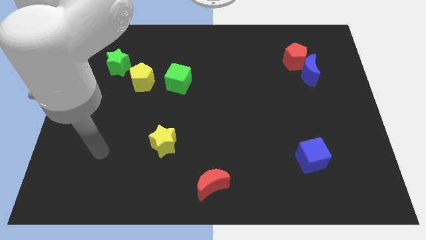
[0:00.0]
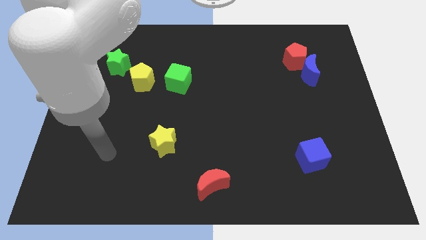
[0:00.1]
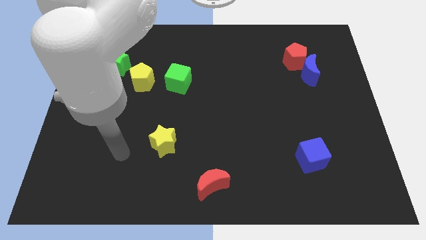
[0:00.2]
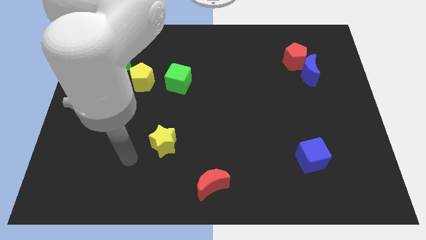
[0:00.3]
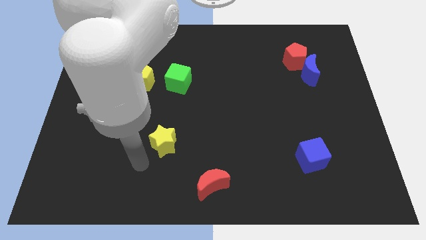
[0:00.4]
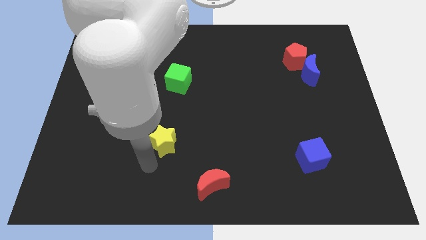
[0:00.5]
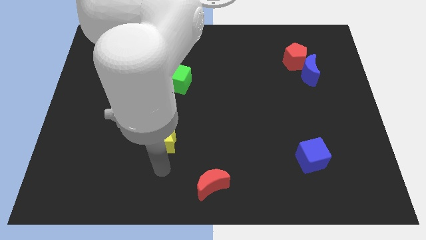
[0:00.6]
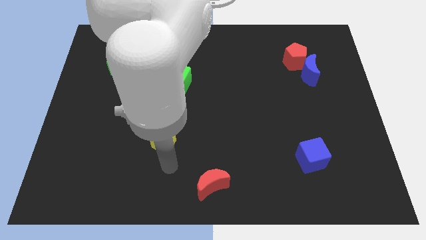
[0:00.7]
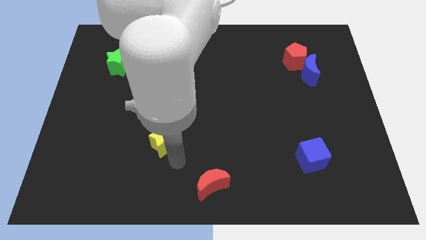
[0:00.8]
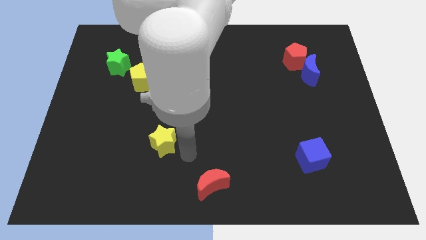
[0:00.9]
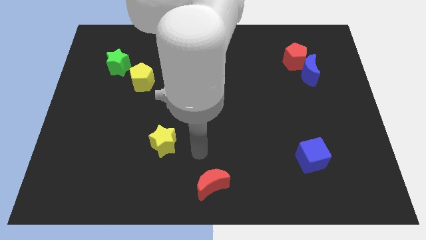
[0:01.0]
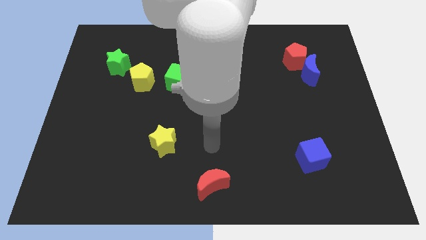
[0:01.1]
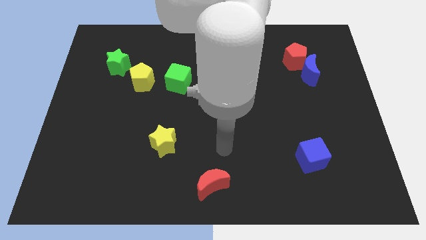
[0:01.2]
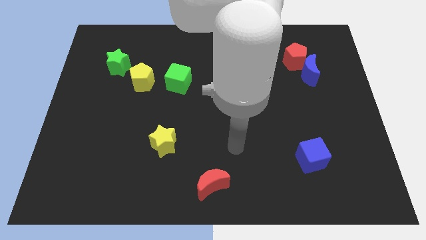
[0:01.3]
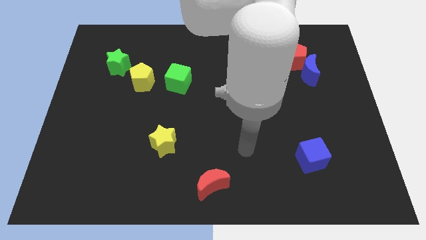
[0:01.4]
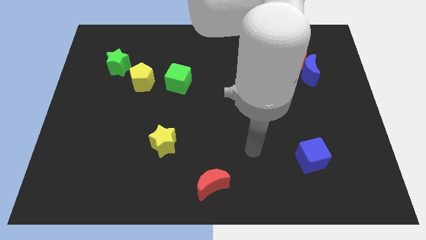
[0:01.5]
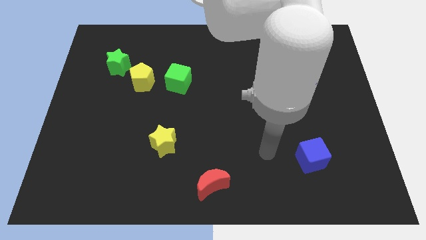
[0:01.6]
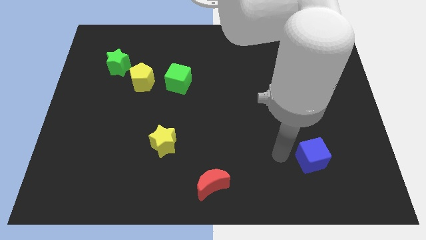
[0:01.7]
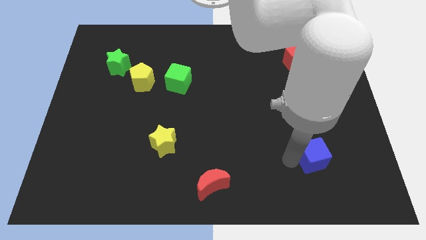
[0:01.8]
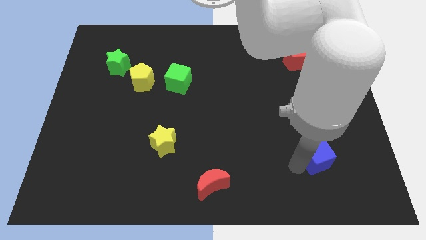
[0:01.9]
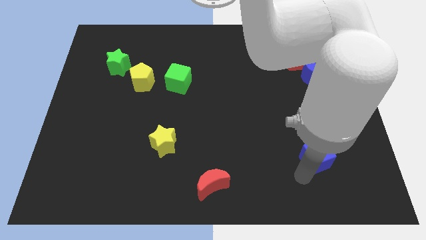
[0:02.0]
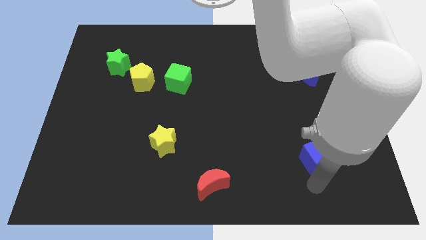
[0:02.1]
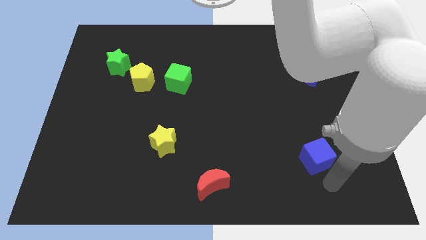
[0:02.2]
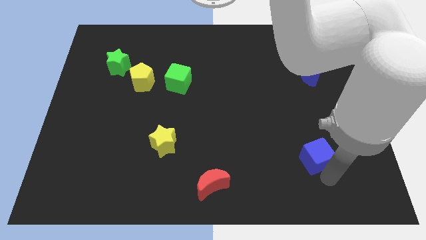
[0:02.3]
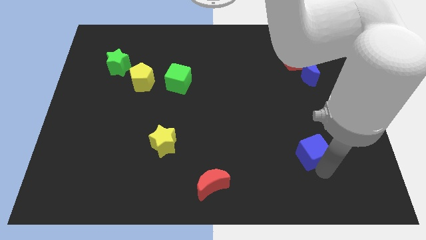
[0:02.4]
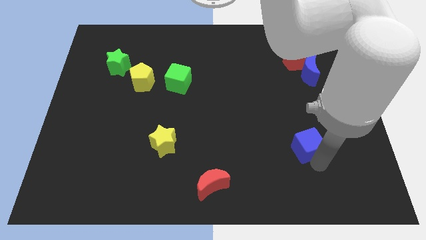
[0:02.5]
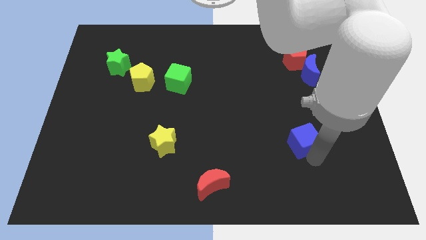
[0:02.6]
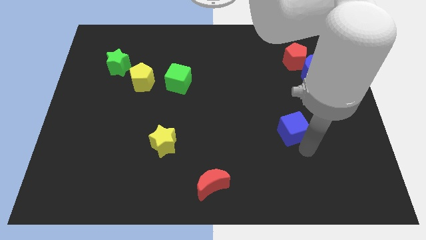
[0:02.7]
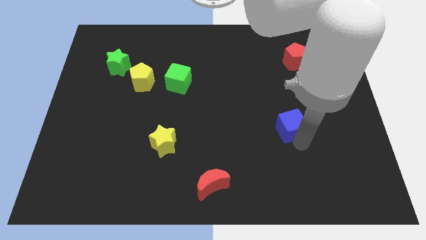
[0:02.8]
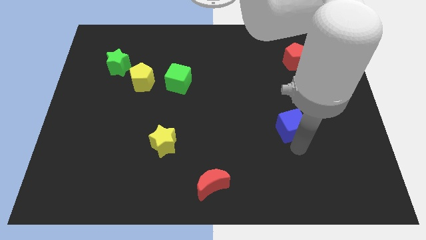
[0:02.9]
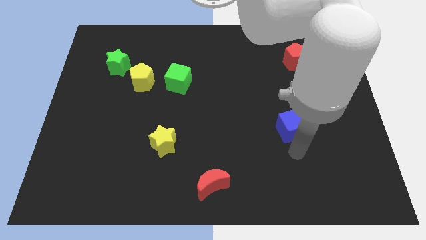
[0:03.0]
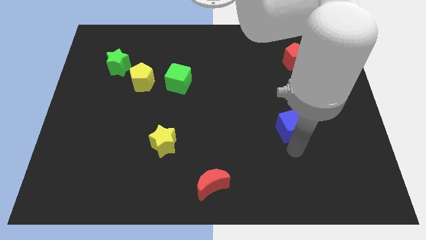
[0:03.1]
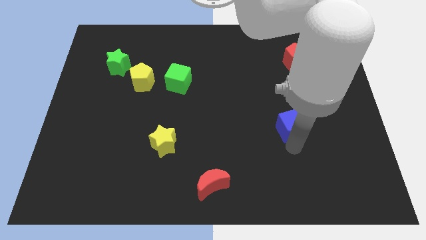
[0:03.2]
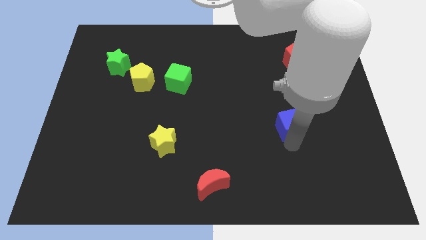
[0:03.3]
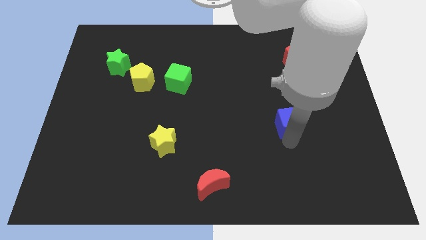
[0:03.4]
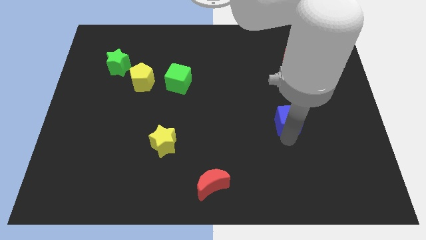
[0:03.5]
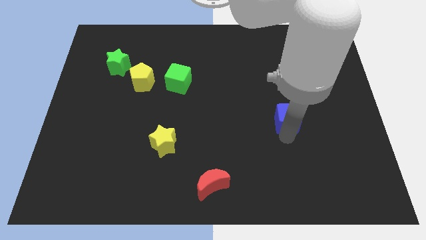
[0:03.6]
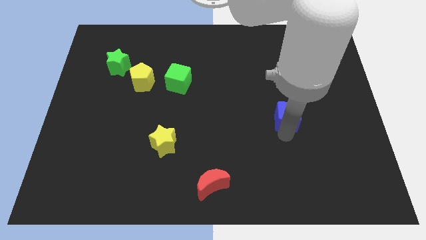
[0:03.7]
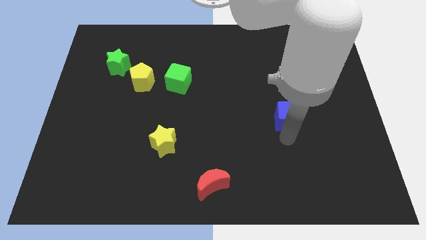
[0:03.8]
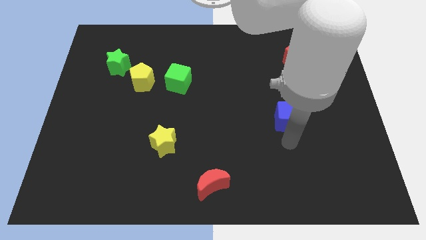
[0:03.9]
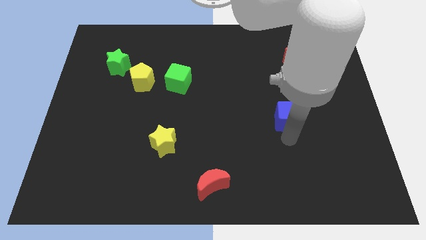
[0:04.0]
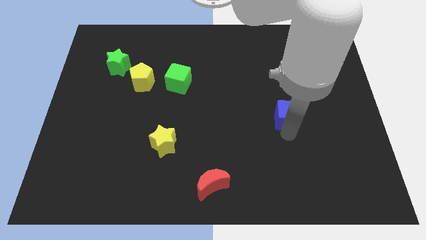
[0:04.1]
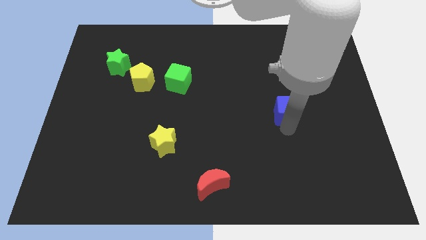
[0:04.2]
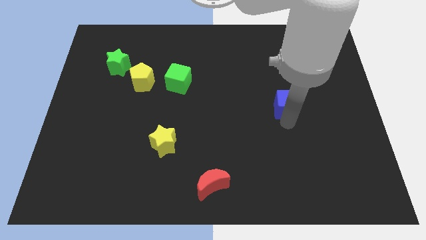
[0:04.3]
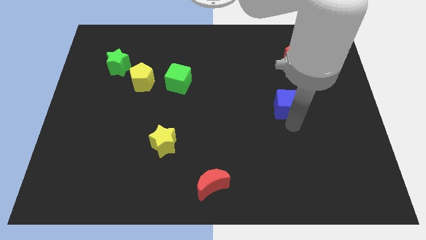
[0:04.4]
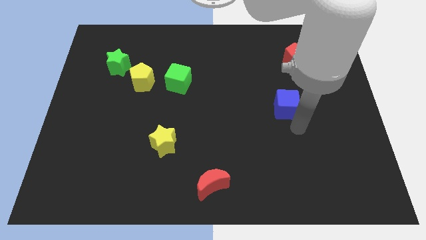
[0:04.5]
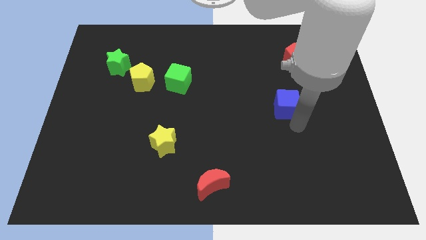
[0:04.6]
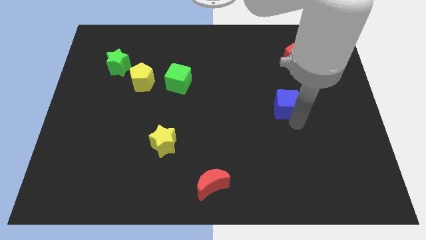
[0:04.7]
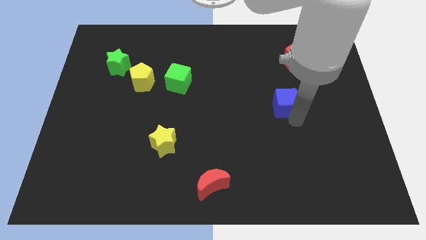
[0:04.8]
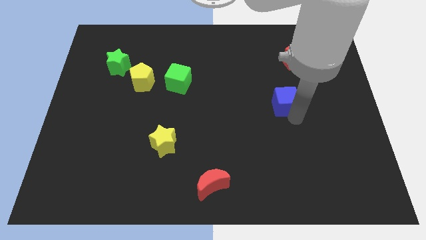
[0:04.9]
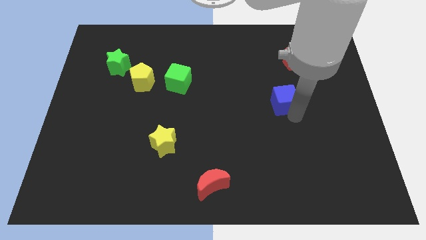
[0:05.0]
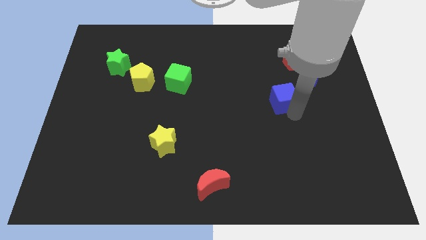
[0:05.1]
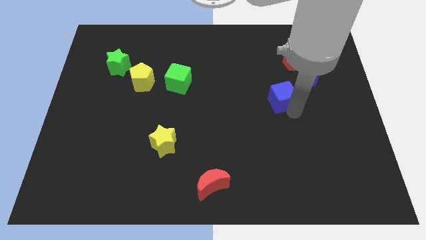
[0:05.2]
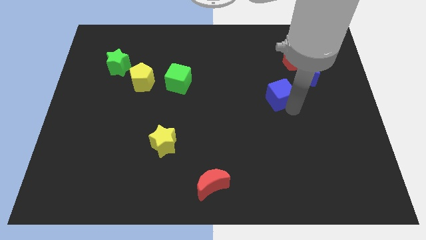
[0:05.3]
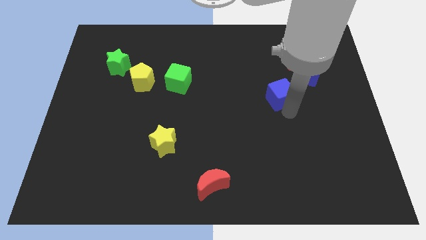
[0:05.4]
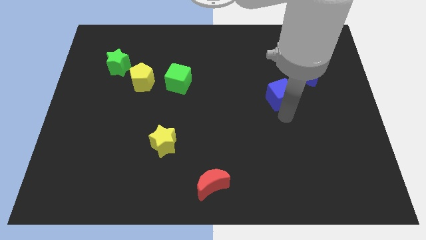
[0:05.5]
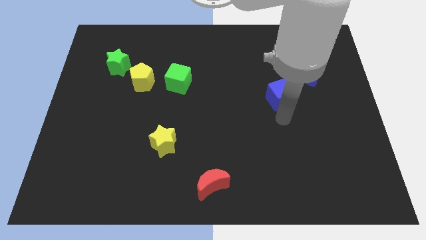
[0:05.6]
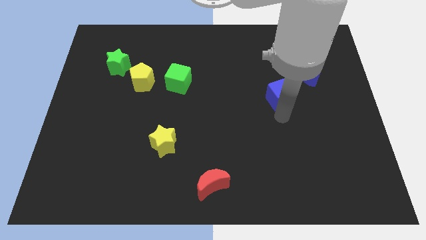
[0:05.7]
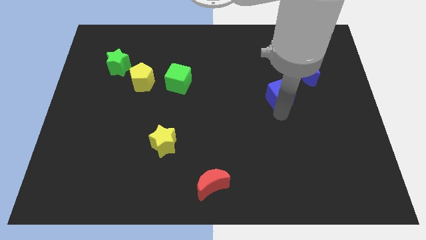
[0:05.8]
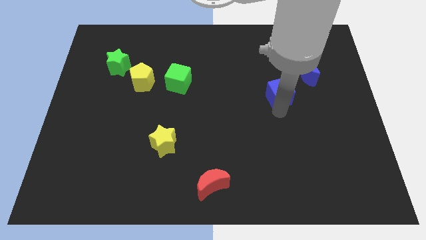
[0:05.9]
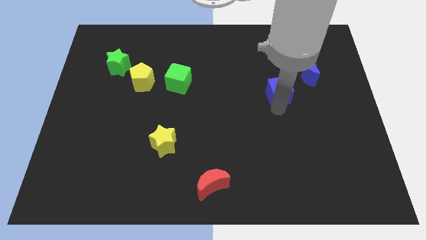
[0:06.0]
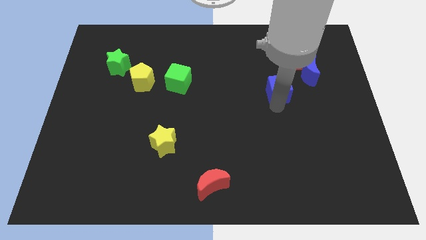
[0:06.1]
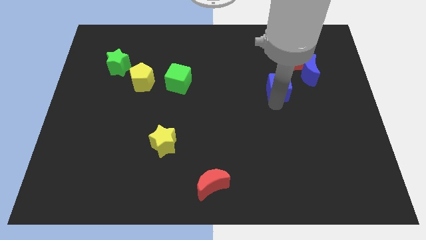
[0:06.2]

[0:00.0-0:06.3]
put the blue cube to the bottom left side of the red pentagon

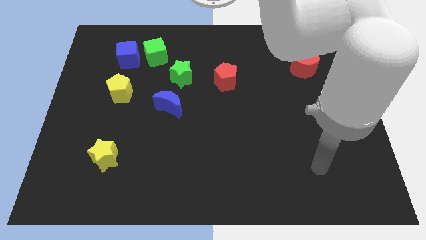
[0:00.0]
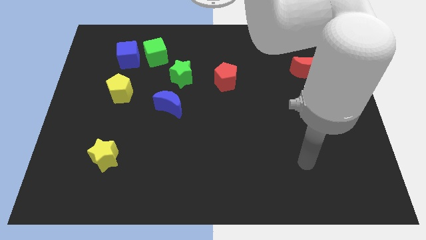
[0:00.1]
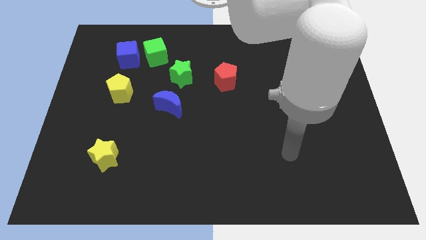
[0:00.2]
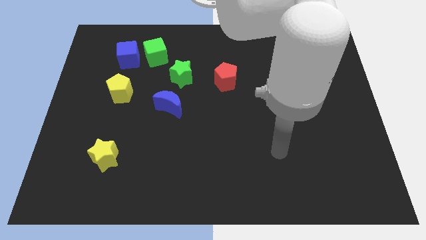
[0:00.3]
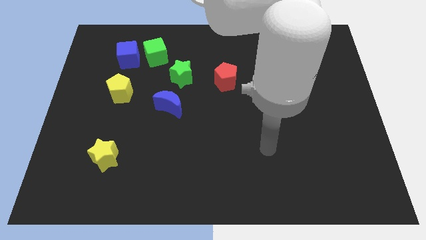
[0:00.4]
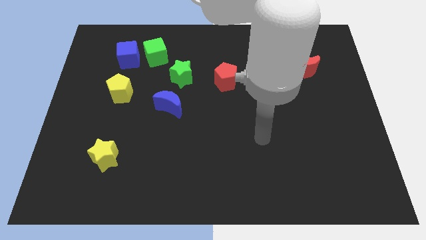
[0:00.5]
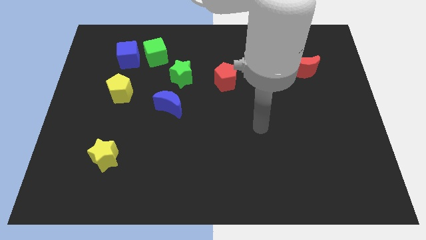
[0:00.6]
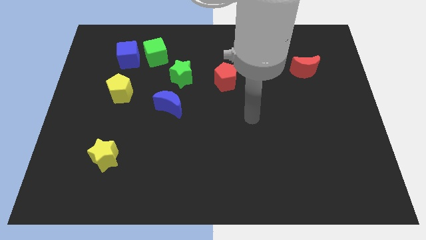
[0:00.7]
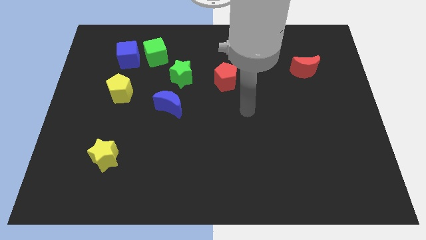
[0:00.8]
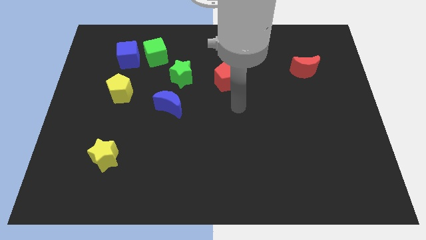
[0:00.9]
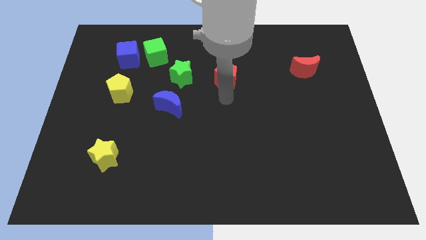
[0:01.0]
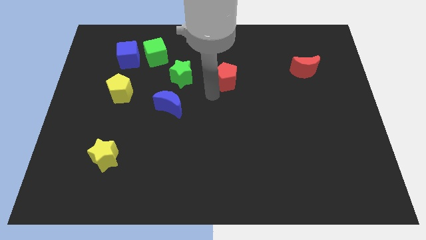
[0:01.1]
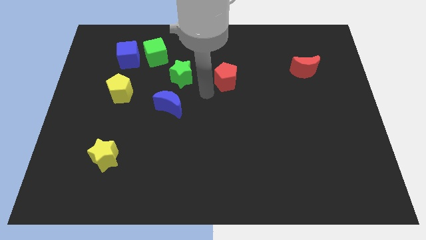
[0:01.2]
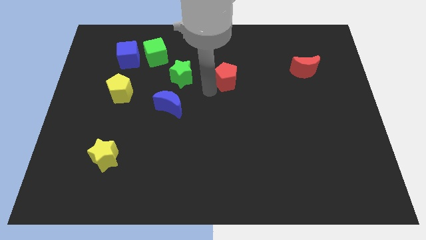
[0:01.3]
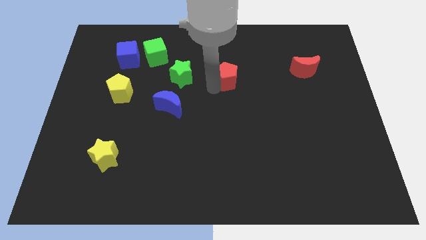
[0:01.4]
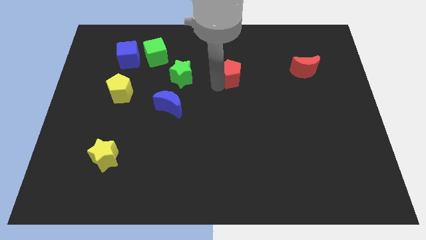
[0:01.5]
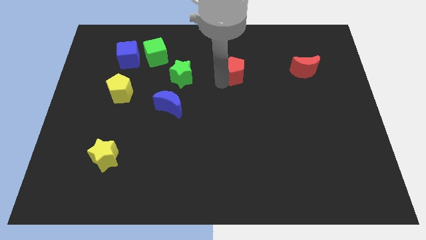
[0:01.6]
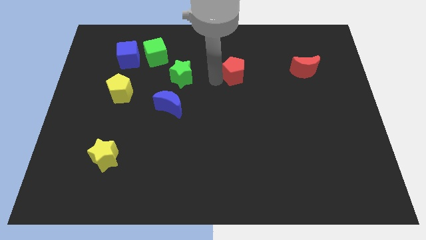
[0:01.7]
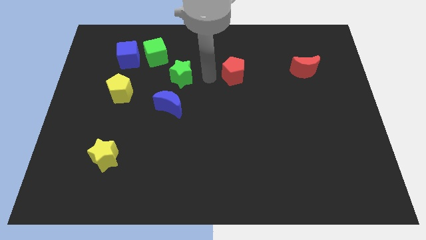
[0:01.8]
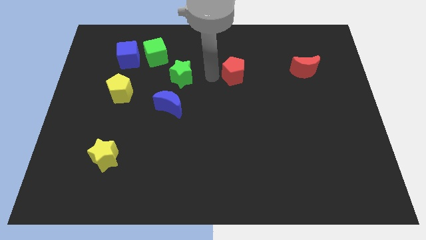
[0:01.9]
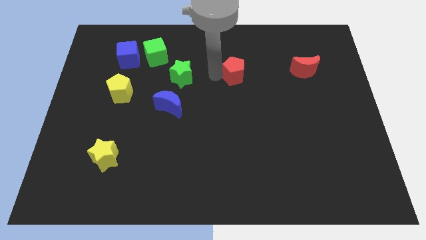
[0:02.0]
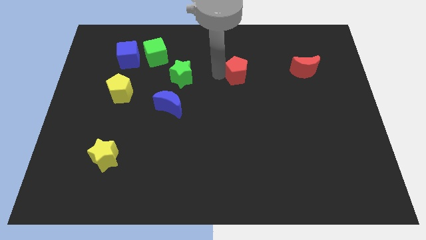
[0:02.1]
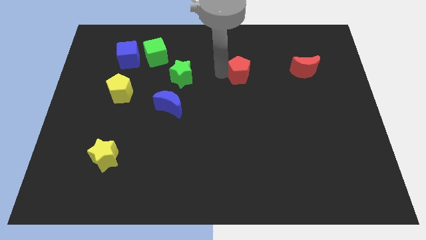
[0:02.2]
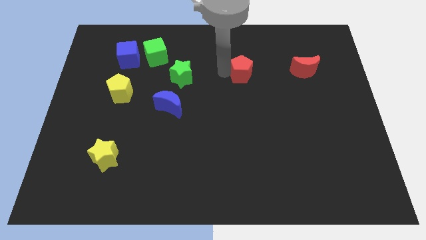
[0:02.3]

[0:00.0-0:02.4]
move the red pentagon to the left side of the red moon
